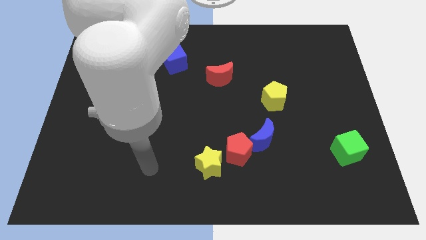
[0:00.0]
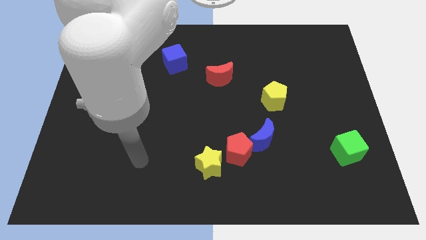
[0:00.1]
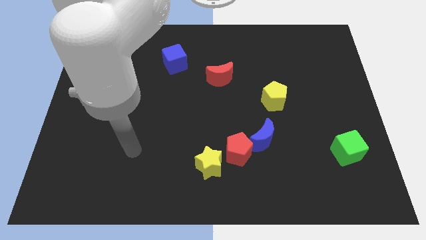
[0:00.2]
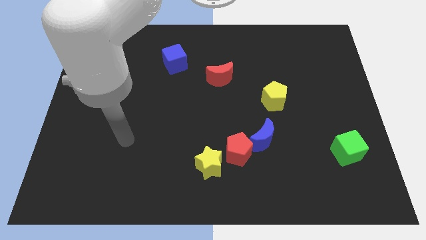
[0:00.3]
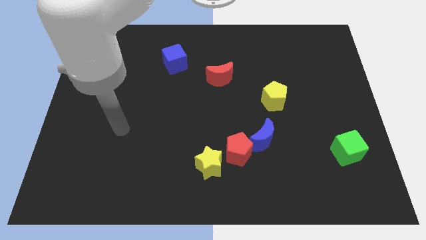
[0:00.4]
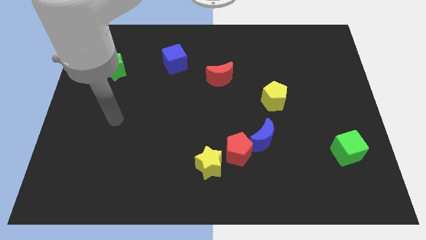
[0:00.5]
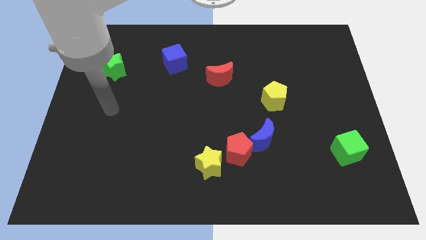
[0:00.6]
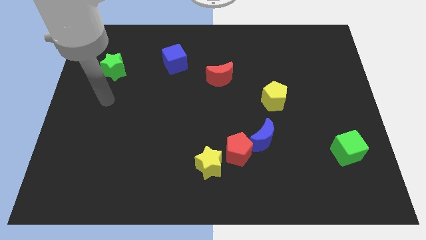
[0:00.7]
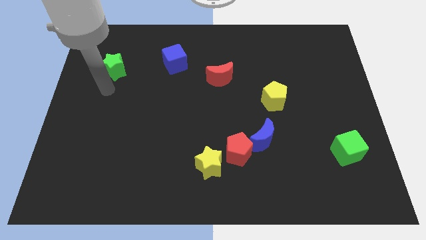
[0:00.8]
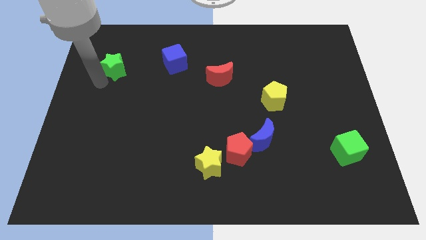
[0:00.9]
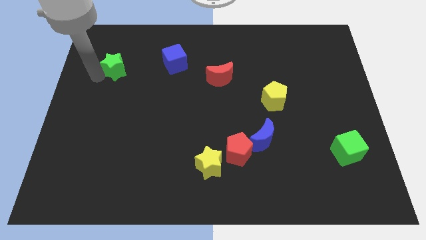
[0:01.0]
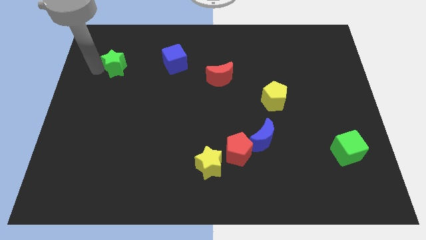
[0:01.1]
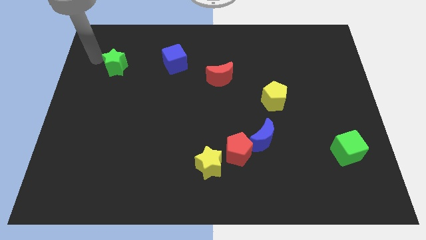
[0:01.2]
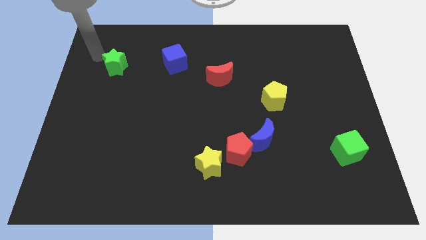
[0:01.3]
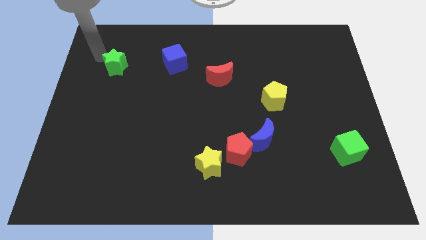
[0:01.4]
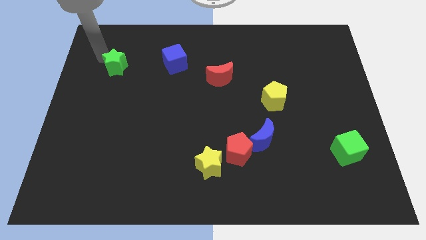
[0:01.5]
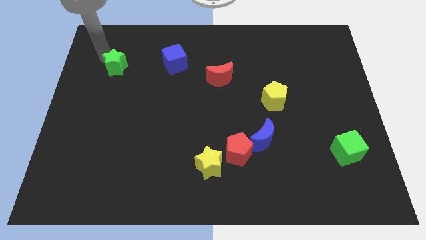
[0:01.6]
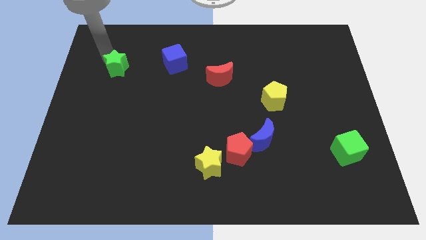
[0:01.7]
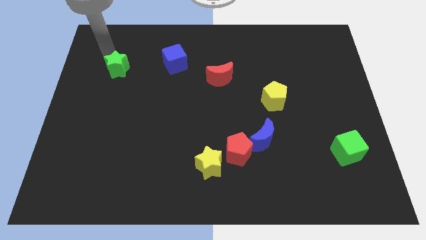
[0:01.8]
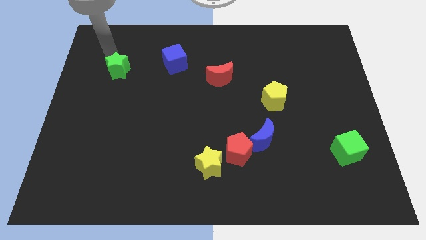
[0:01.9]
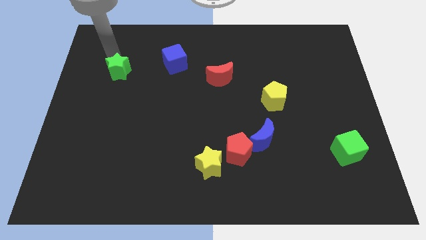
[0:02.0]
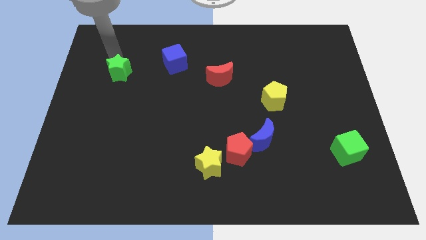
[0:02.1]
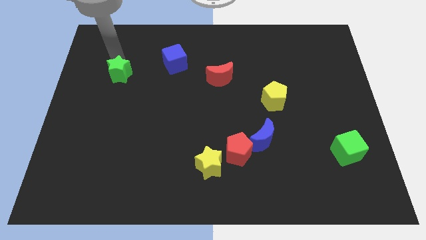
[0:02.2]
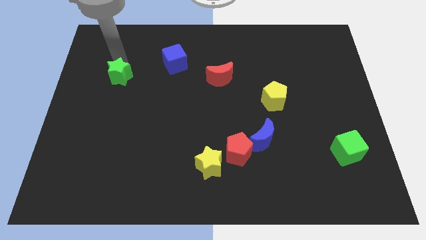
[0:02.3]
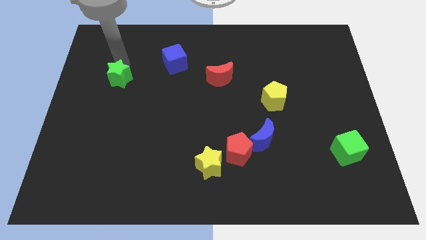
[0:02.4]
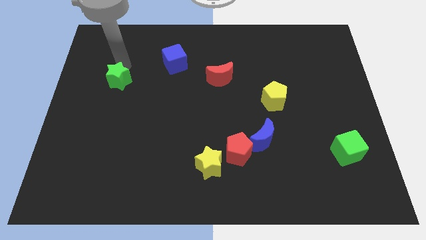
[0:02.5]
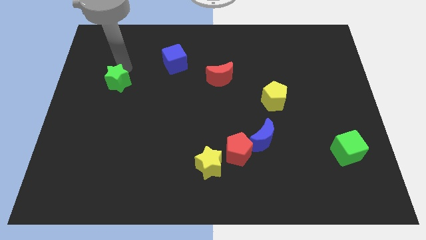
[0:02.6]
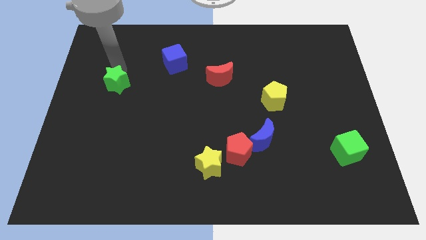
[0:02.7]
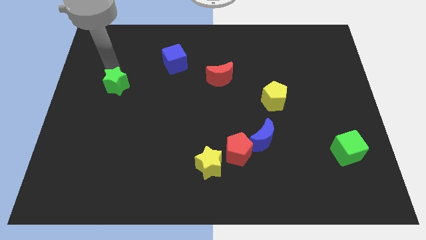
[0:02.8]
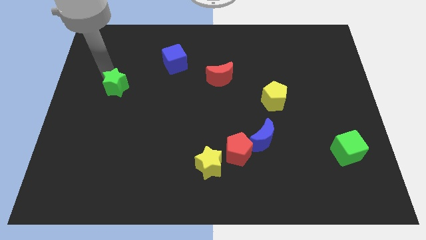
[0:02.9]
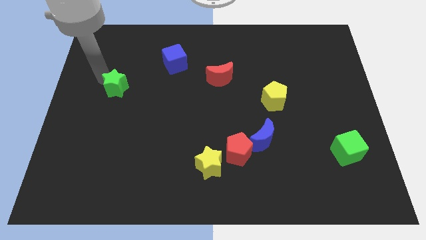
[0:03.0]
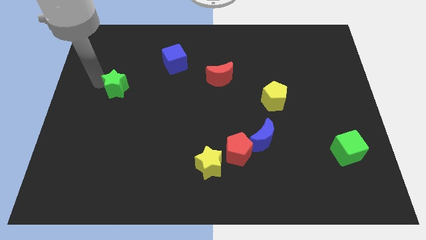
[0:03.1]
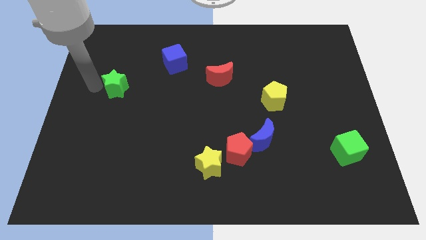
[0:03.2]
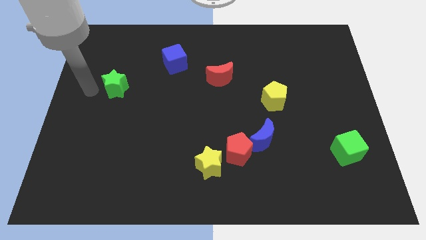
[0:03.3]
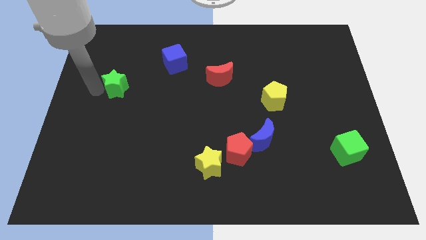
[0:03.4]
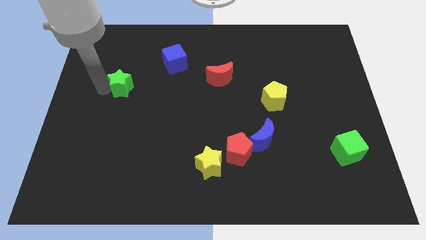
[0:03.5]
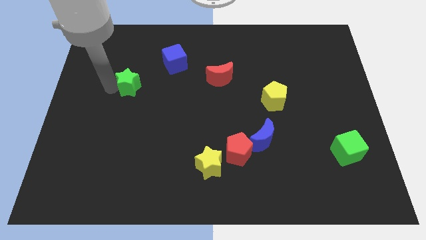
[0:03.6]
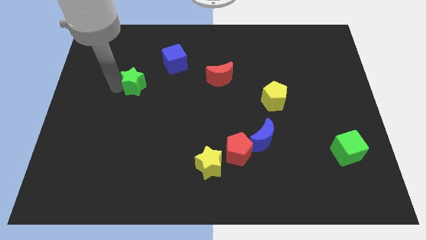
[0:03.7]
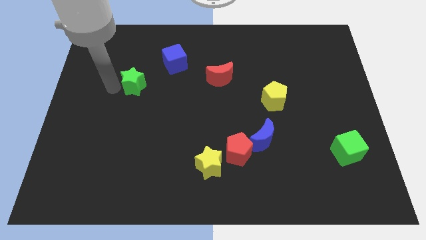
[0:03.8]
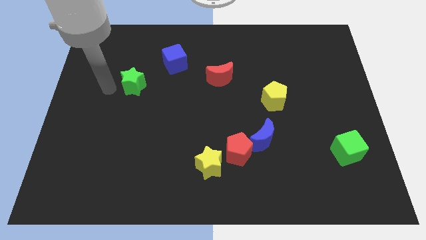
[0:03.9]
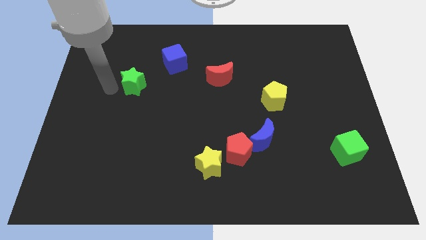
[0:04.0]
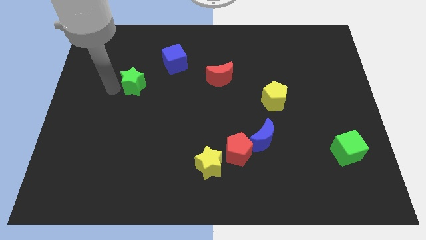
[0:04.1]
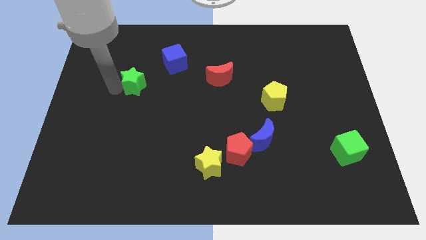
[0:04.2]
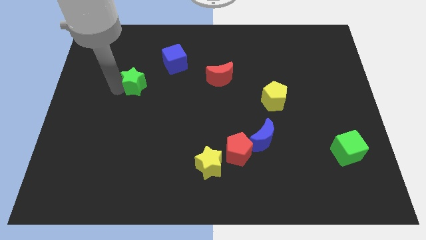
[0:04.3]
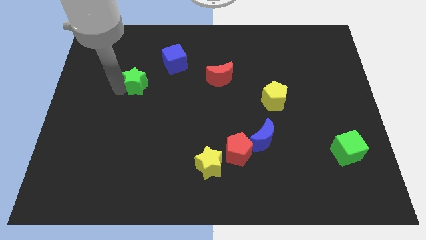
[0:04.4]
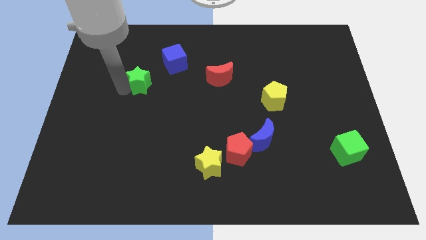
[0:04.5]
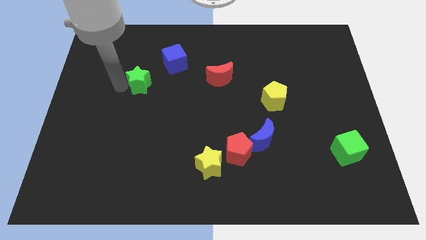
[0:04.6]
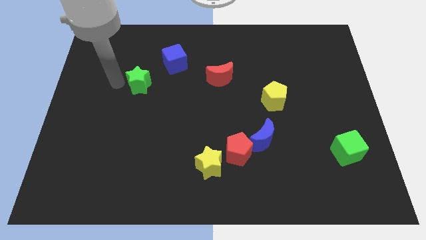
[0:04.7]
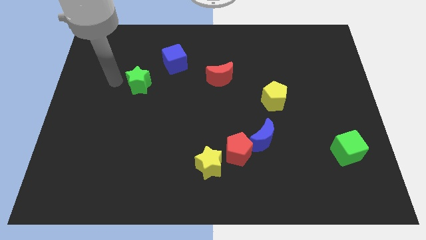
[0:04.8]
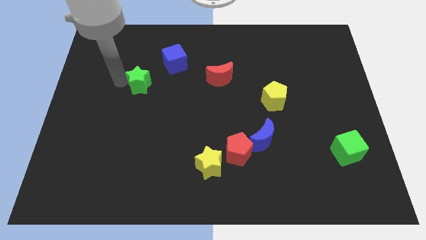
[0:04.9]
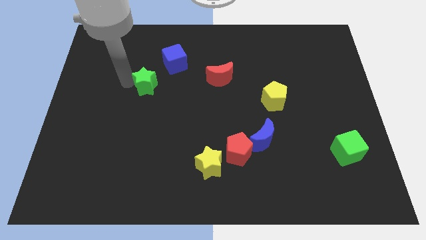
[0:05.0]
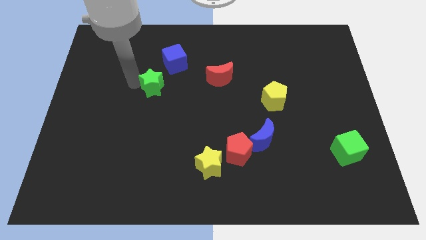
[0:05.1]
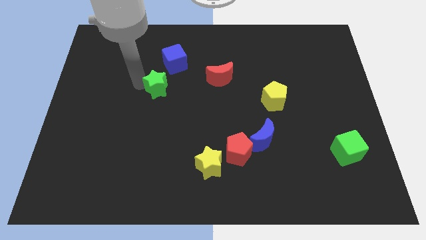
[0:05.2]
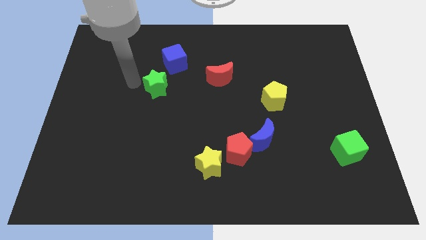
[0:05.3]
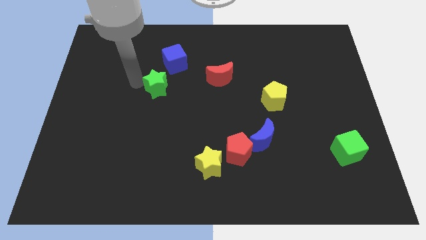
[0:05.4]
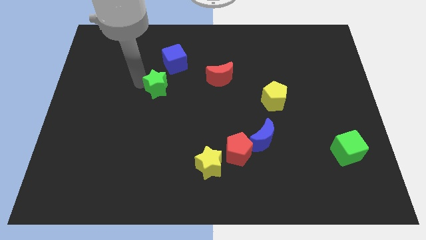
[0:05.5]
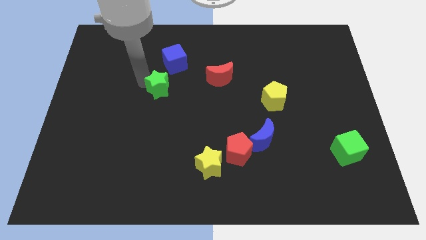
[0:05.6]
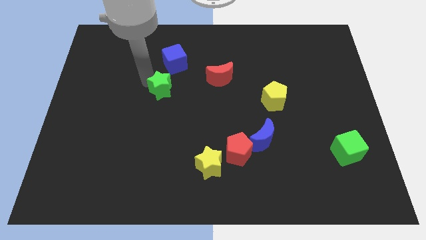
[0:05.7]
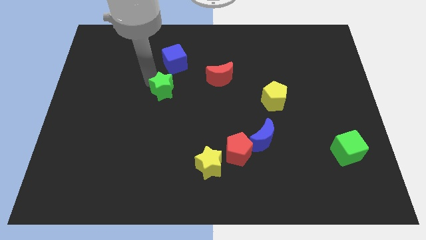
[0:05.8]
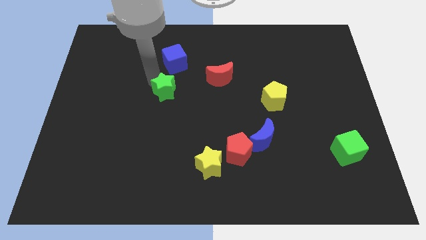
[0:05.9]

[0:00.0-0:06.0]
slide the green star to the middle of the board
